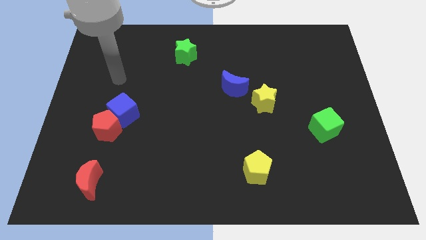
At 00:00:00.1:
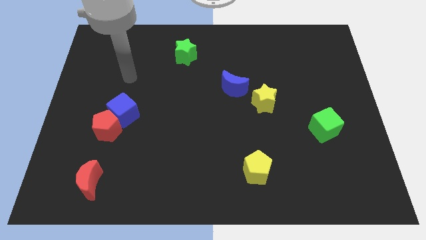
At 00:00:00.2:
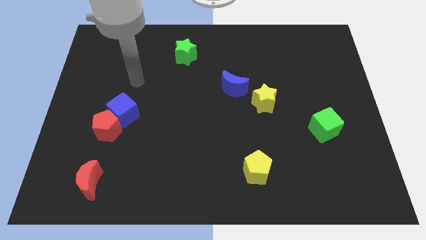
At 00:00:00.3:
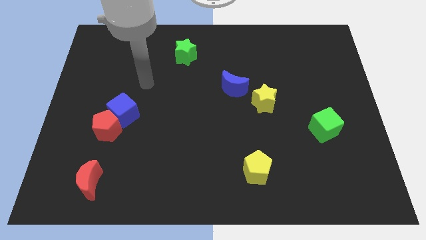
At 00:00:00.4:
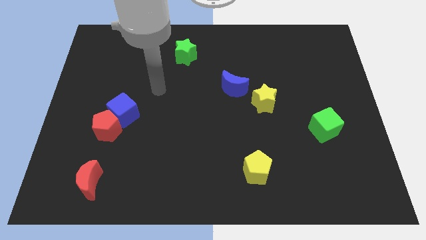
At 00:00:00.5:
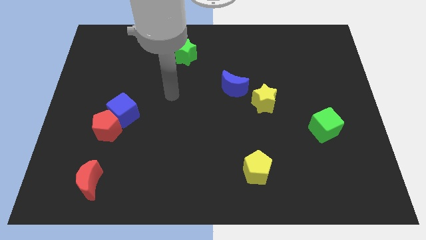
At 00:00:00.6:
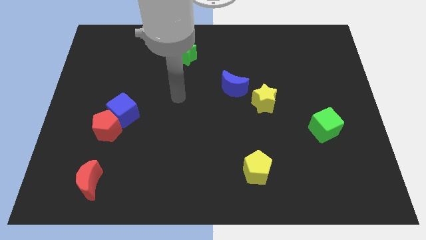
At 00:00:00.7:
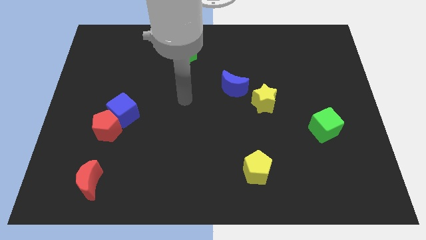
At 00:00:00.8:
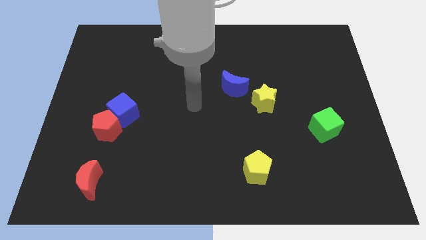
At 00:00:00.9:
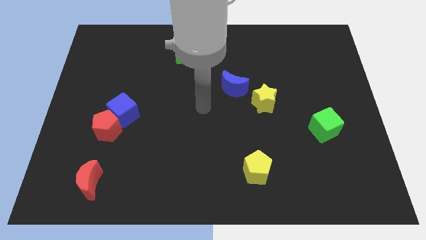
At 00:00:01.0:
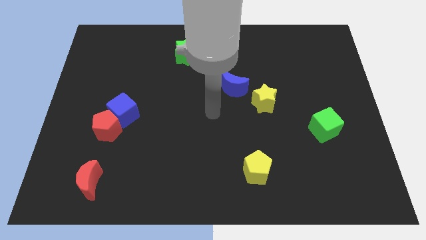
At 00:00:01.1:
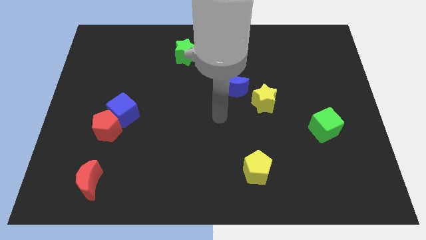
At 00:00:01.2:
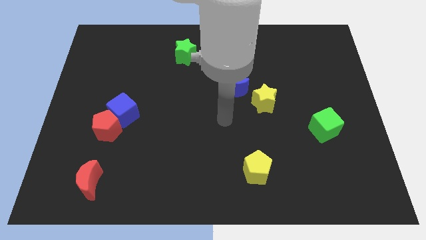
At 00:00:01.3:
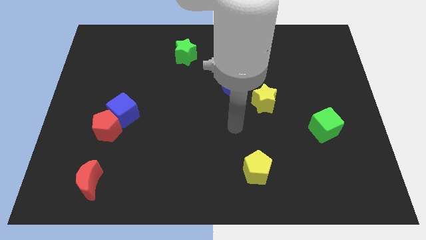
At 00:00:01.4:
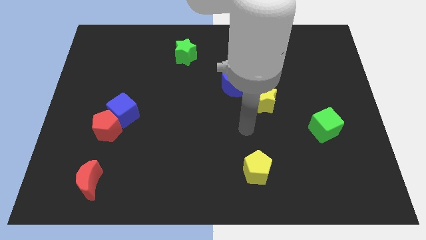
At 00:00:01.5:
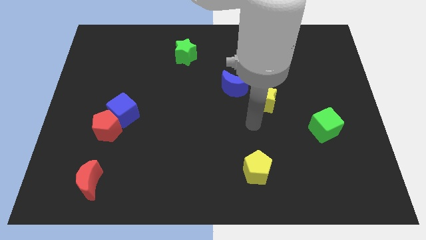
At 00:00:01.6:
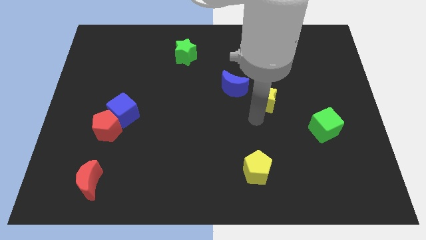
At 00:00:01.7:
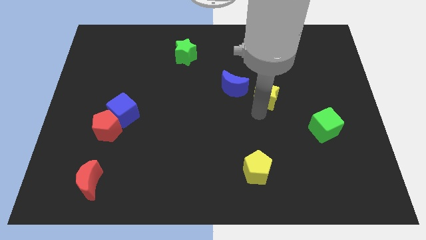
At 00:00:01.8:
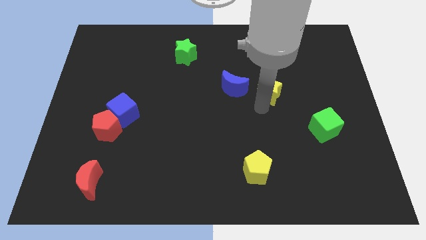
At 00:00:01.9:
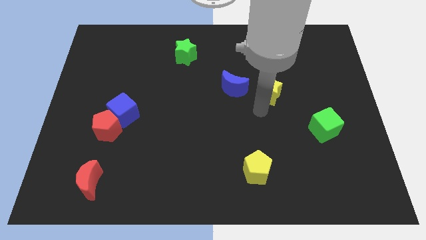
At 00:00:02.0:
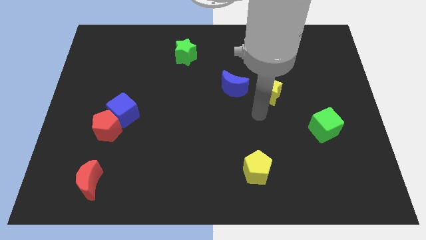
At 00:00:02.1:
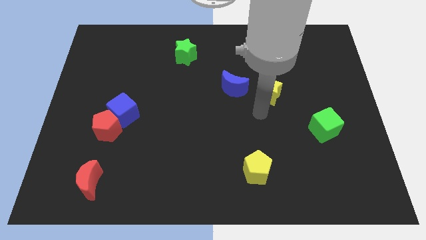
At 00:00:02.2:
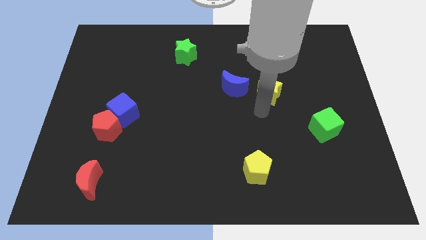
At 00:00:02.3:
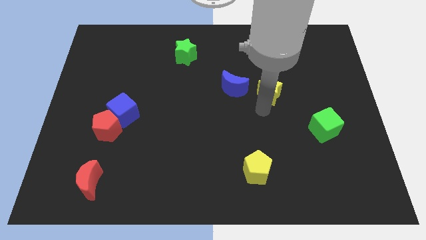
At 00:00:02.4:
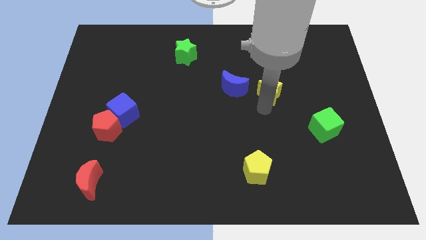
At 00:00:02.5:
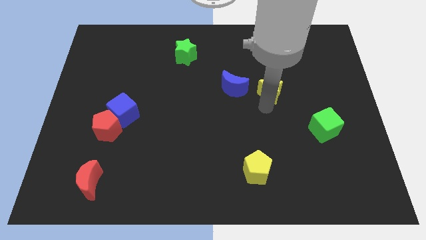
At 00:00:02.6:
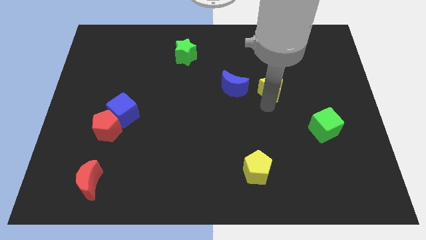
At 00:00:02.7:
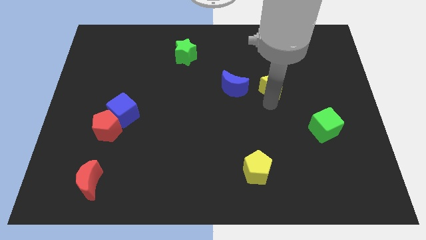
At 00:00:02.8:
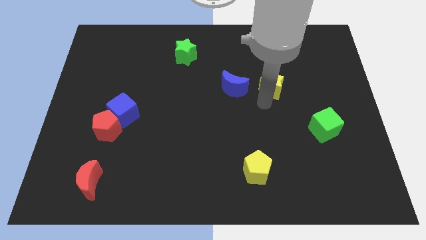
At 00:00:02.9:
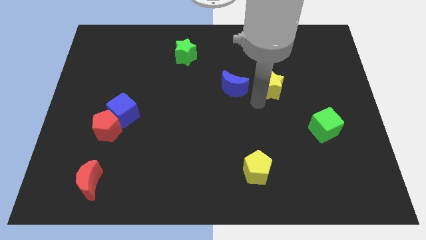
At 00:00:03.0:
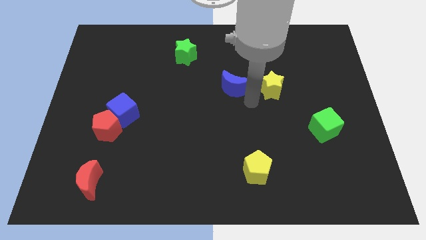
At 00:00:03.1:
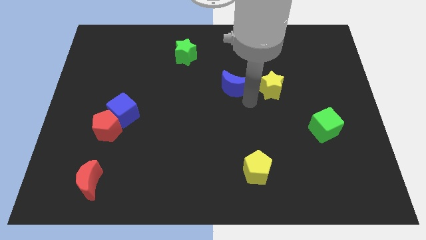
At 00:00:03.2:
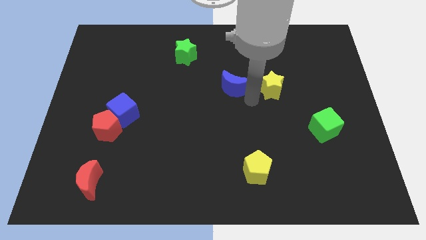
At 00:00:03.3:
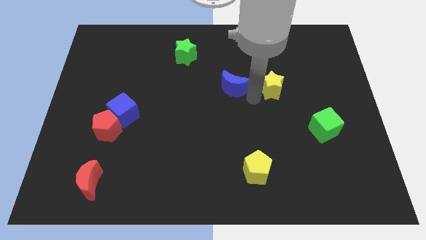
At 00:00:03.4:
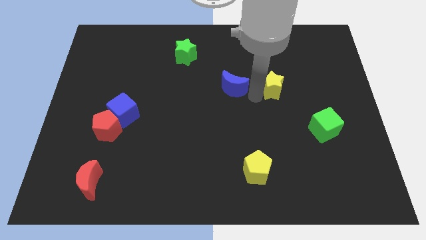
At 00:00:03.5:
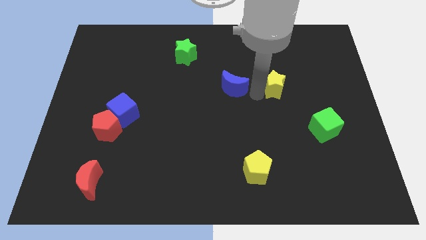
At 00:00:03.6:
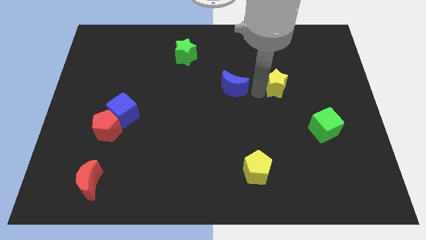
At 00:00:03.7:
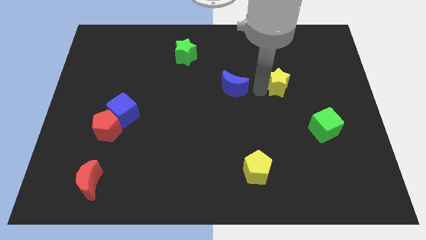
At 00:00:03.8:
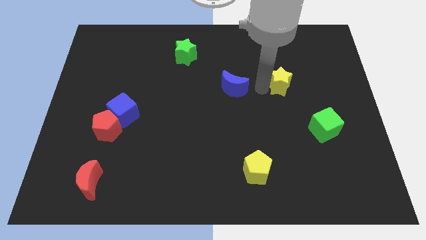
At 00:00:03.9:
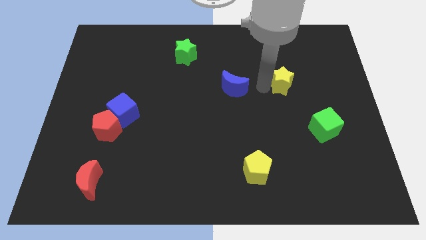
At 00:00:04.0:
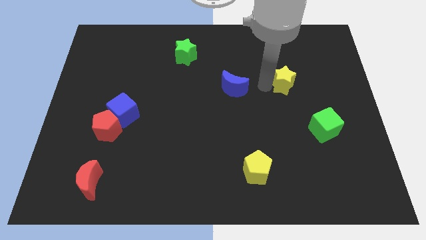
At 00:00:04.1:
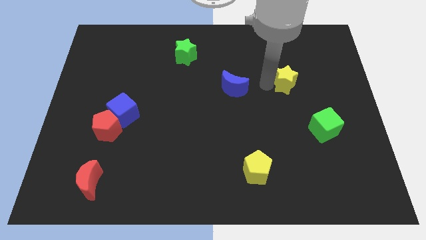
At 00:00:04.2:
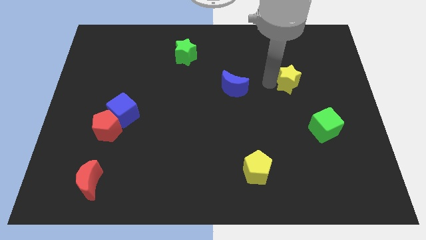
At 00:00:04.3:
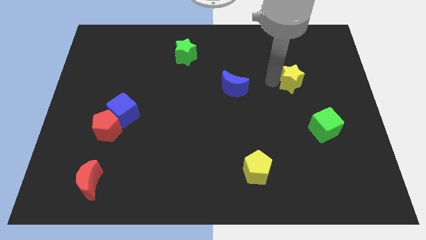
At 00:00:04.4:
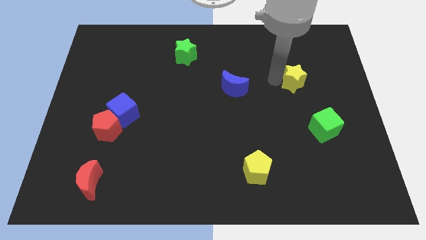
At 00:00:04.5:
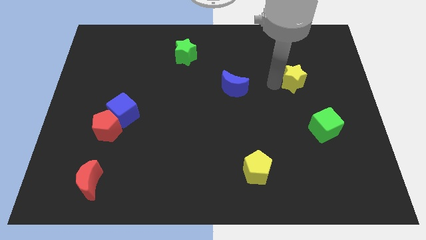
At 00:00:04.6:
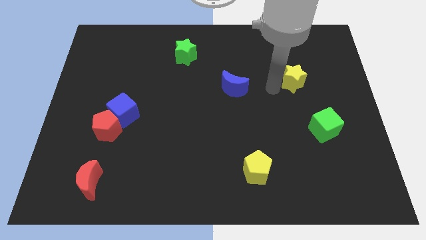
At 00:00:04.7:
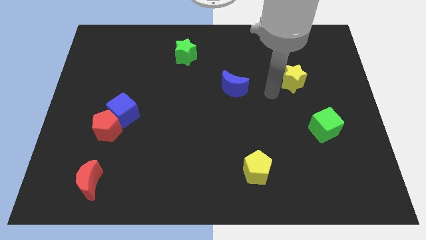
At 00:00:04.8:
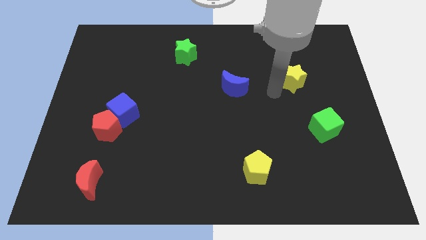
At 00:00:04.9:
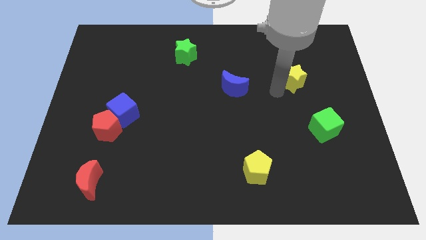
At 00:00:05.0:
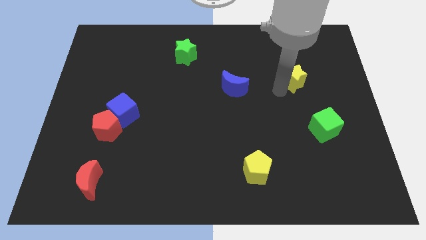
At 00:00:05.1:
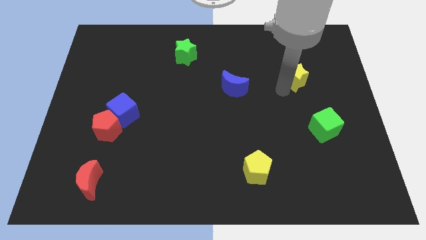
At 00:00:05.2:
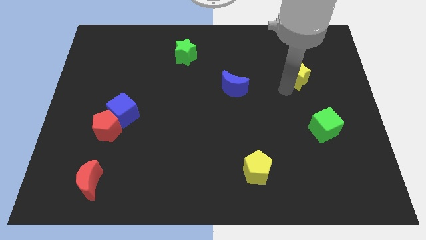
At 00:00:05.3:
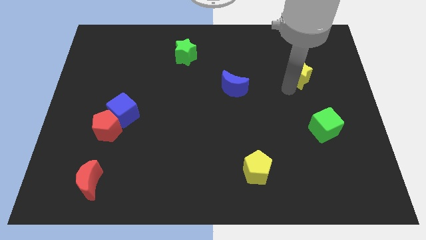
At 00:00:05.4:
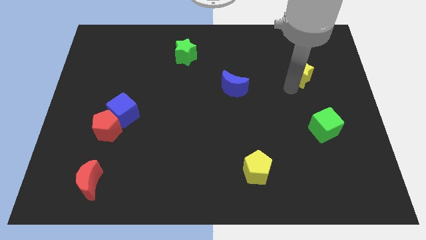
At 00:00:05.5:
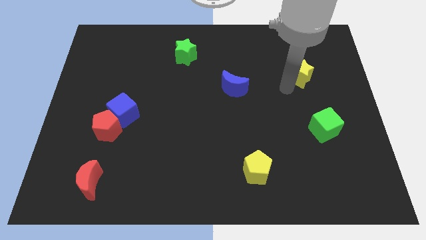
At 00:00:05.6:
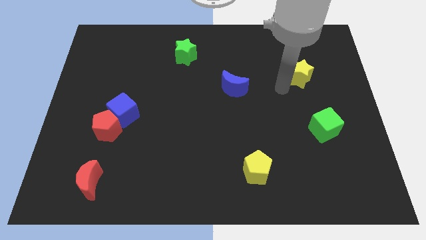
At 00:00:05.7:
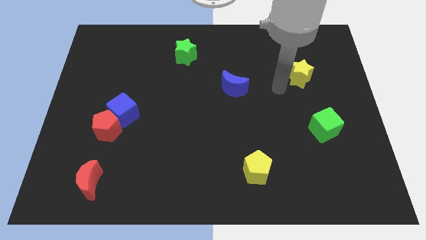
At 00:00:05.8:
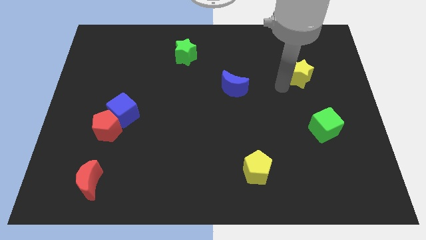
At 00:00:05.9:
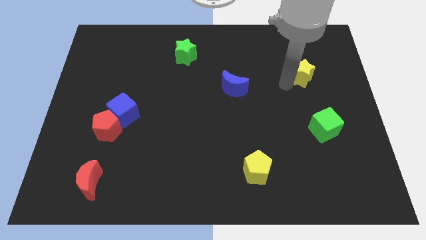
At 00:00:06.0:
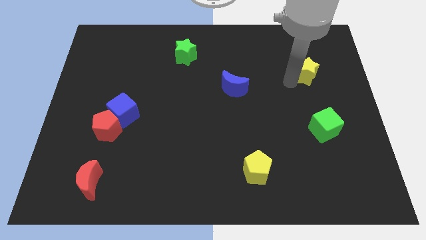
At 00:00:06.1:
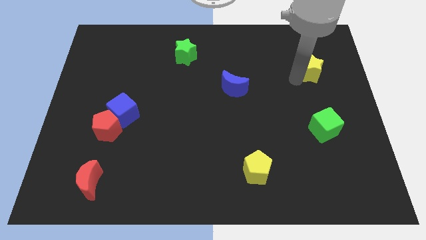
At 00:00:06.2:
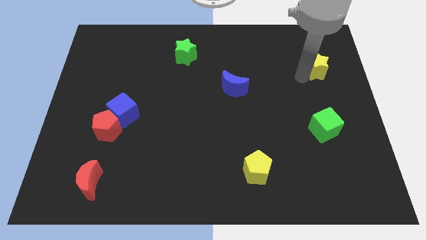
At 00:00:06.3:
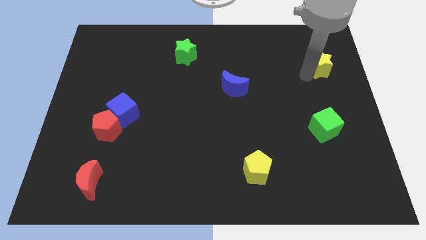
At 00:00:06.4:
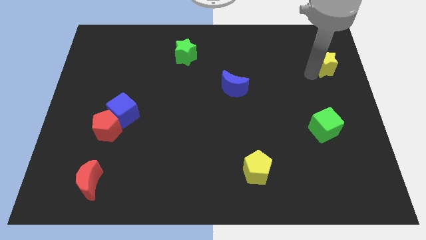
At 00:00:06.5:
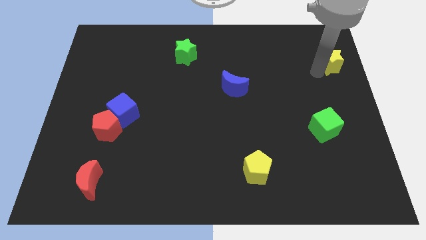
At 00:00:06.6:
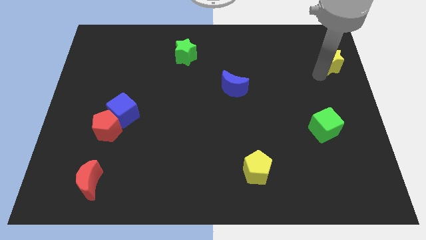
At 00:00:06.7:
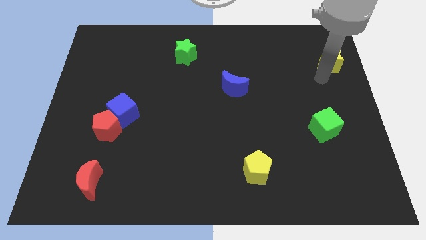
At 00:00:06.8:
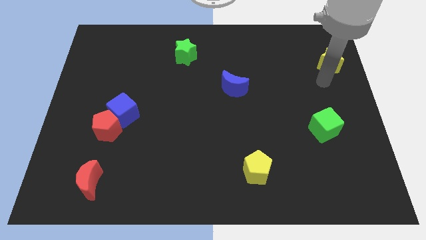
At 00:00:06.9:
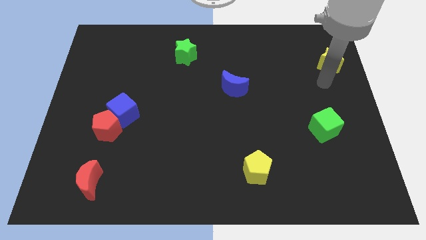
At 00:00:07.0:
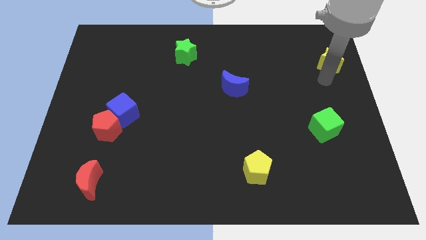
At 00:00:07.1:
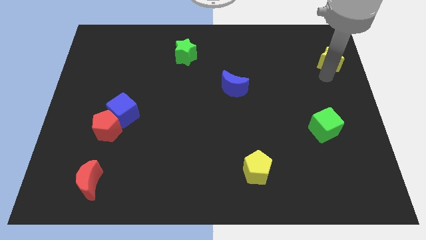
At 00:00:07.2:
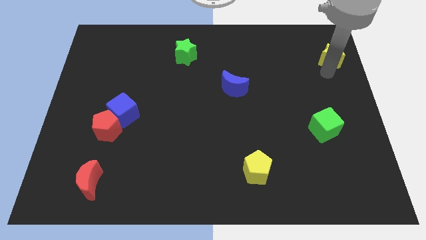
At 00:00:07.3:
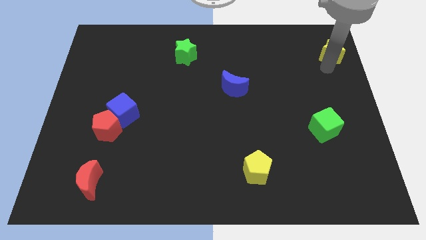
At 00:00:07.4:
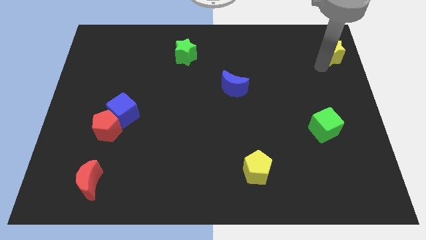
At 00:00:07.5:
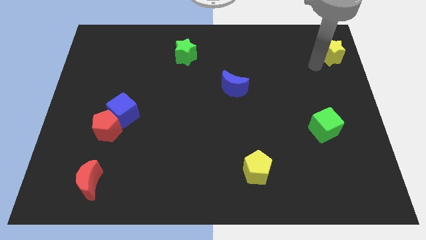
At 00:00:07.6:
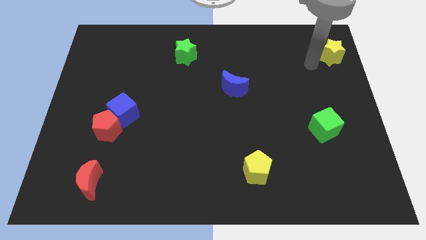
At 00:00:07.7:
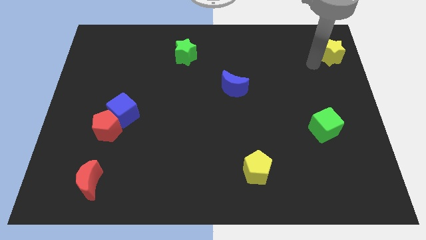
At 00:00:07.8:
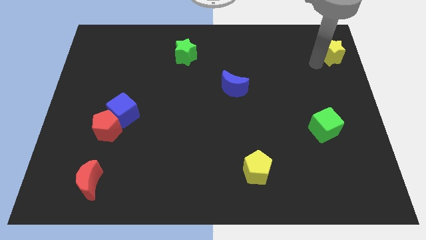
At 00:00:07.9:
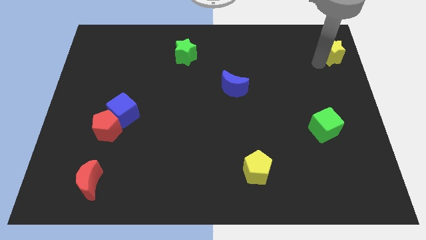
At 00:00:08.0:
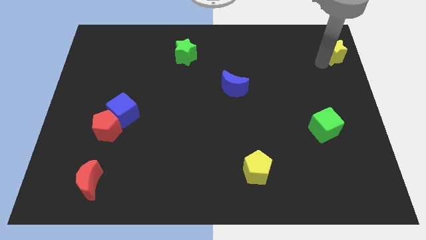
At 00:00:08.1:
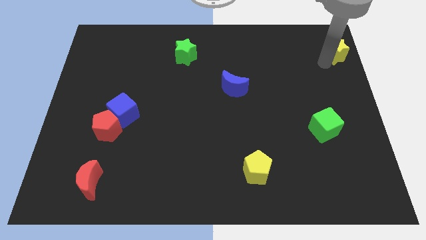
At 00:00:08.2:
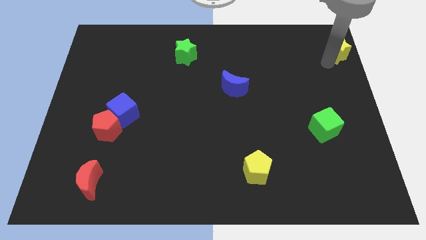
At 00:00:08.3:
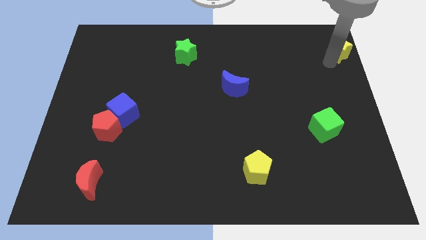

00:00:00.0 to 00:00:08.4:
slide the yellow star to the upper right corner
